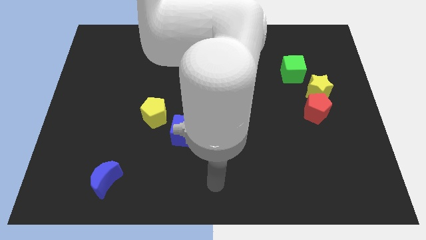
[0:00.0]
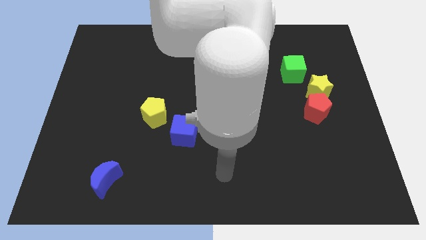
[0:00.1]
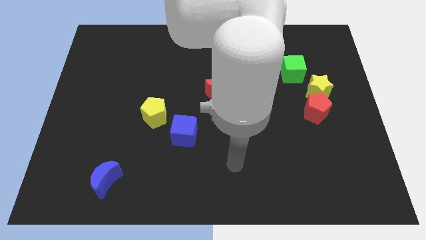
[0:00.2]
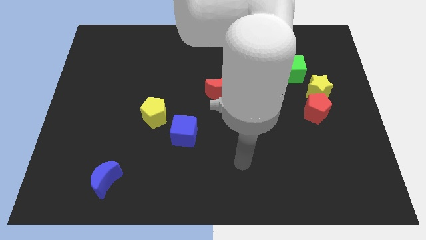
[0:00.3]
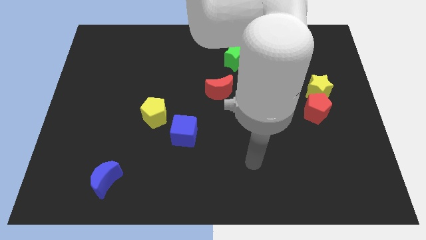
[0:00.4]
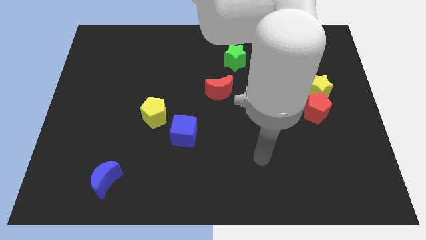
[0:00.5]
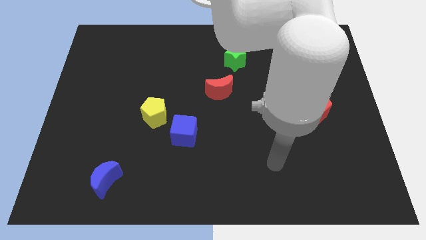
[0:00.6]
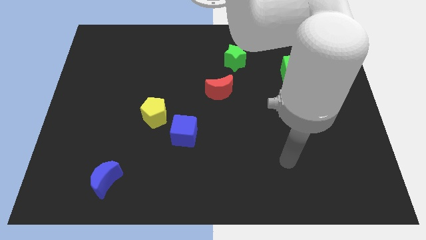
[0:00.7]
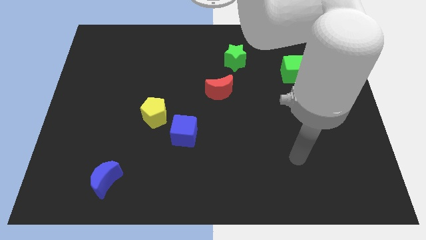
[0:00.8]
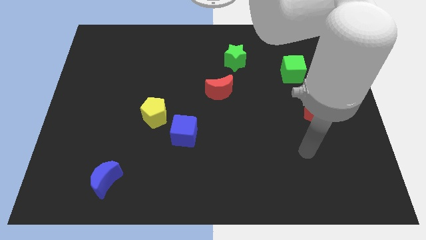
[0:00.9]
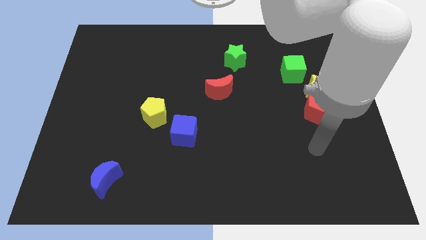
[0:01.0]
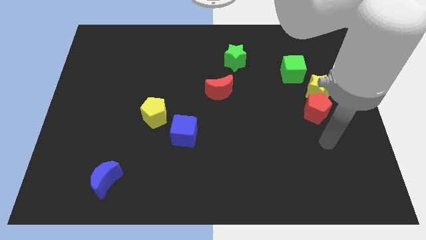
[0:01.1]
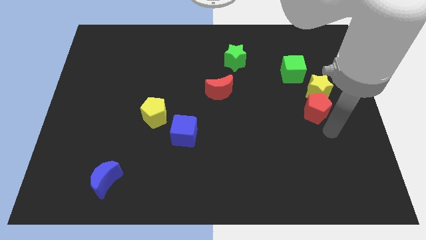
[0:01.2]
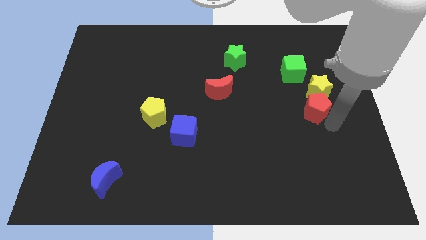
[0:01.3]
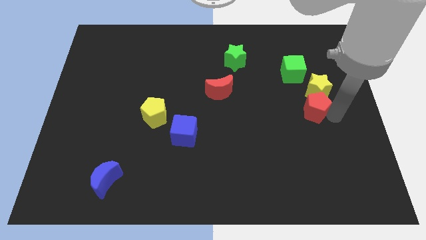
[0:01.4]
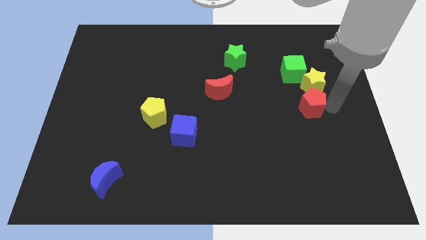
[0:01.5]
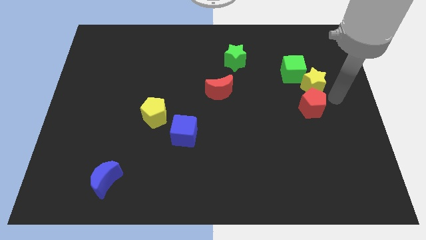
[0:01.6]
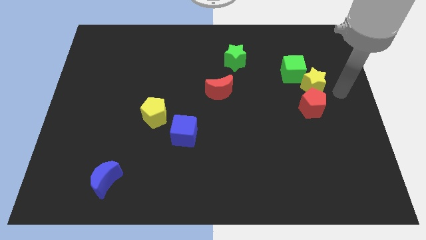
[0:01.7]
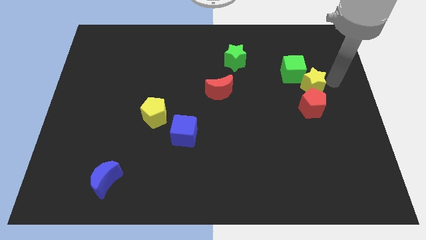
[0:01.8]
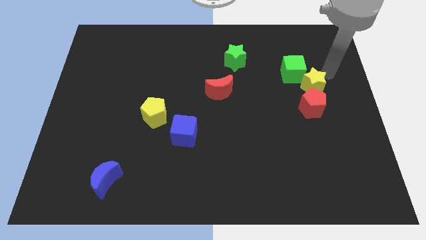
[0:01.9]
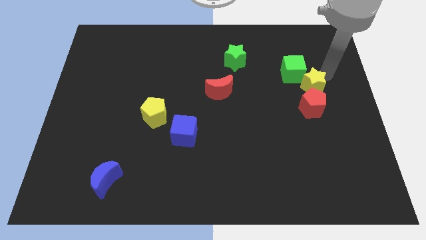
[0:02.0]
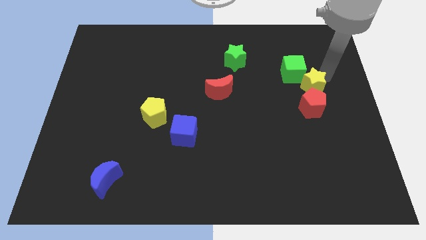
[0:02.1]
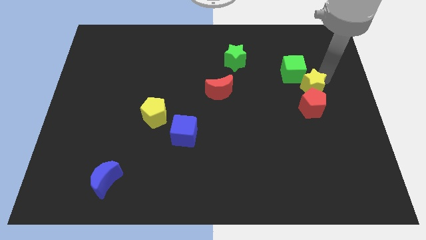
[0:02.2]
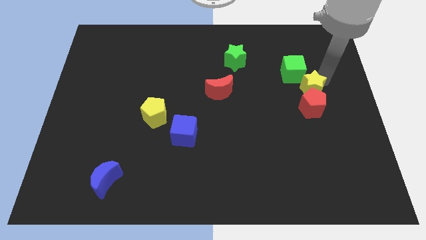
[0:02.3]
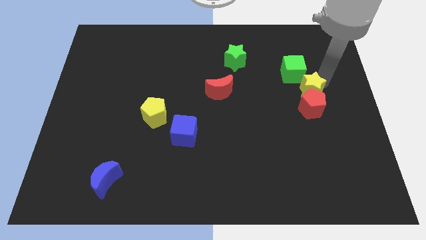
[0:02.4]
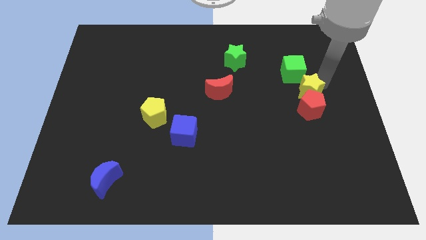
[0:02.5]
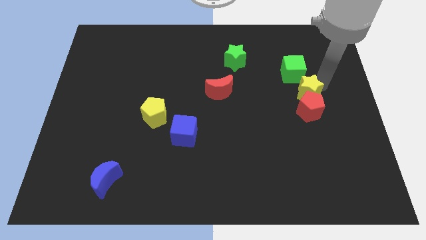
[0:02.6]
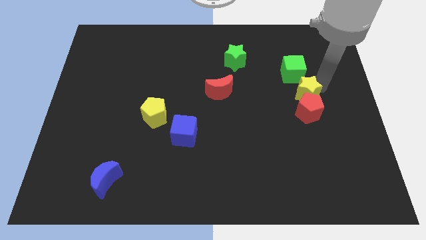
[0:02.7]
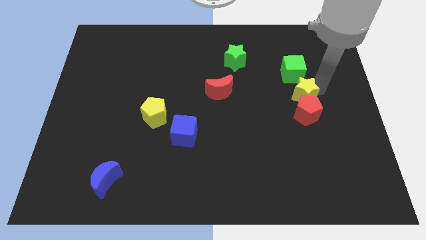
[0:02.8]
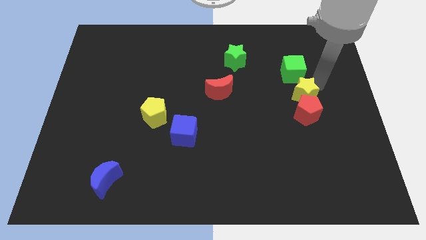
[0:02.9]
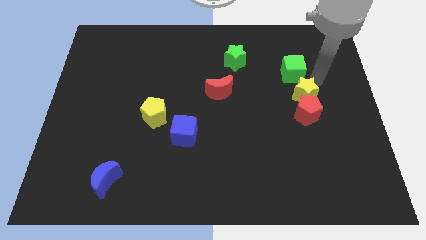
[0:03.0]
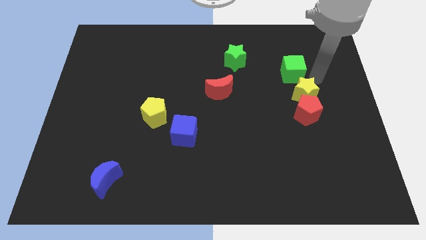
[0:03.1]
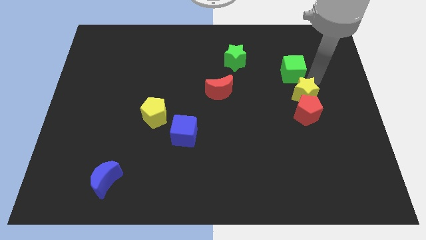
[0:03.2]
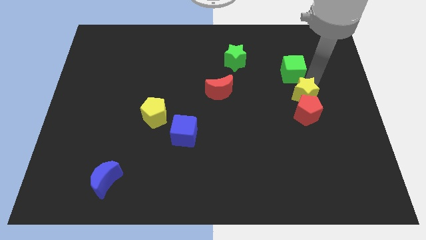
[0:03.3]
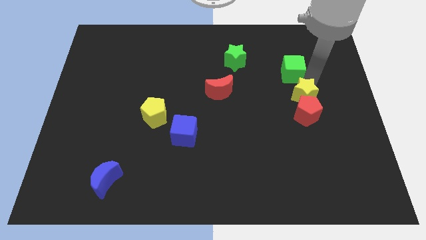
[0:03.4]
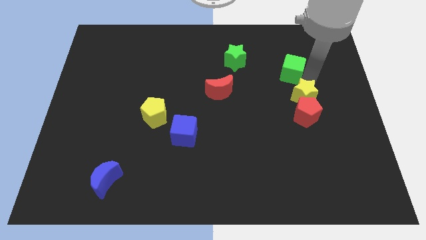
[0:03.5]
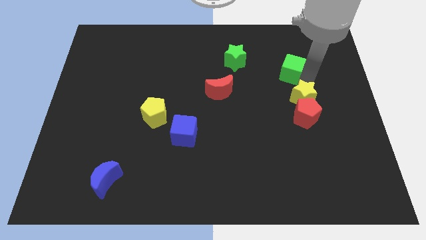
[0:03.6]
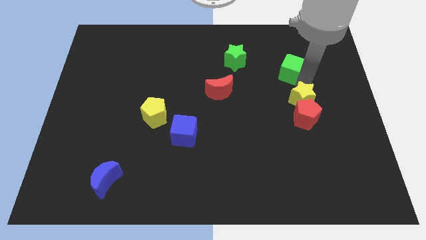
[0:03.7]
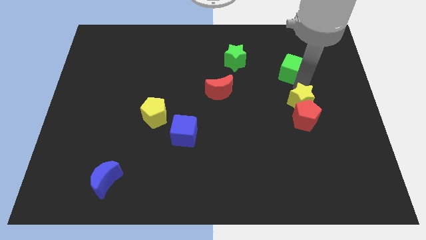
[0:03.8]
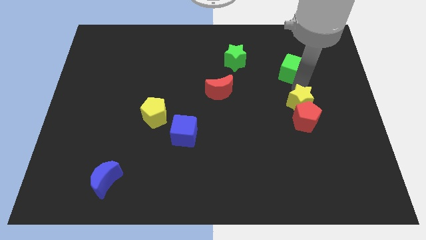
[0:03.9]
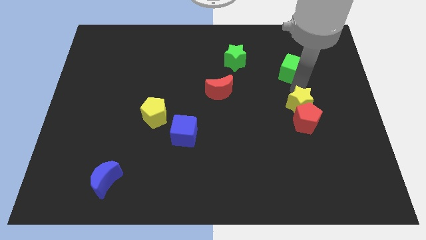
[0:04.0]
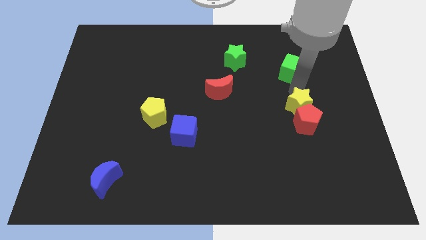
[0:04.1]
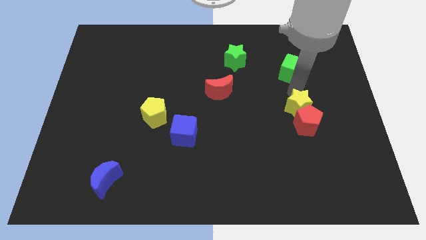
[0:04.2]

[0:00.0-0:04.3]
push the yellow star slightly down and then left

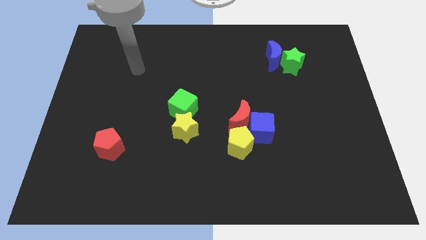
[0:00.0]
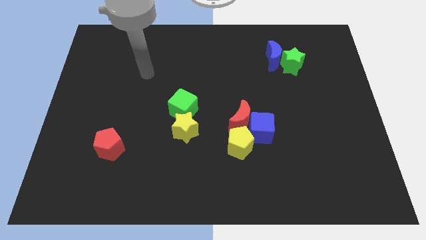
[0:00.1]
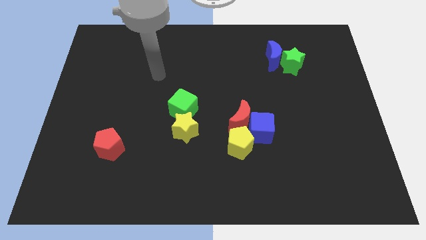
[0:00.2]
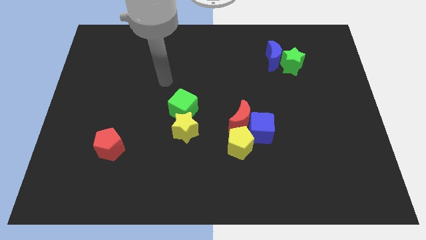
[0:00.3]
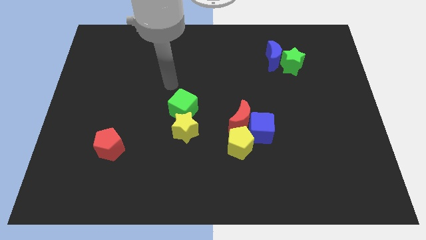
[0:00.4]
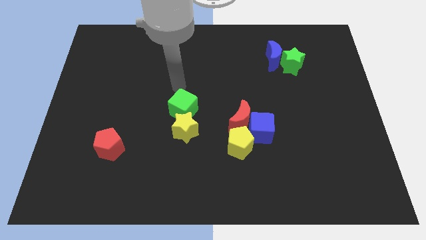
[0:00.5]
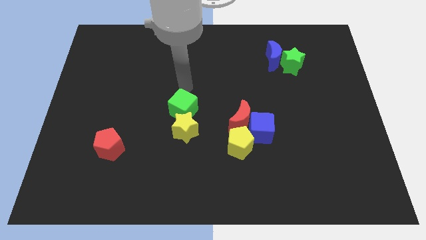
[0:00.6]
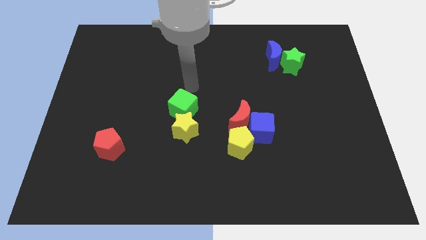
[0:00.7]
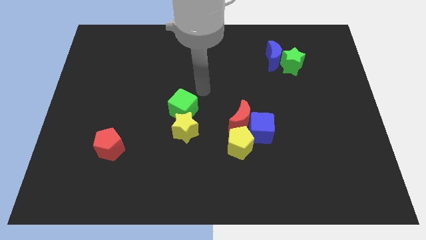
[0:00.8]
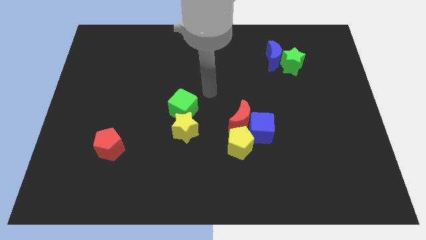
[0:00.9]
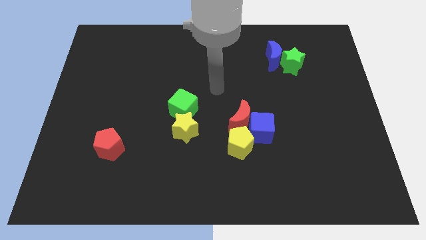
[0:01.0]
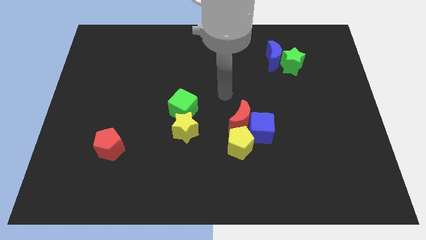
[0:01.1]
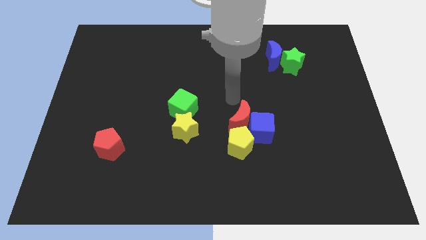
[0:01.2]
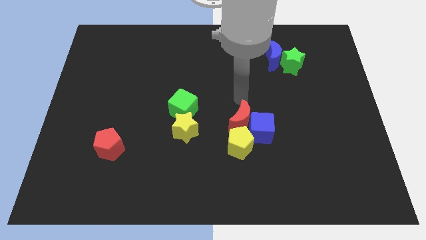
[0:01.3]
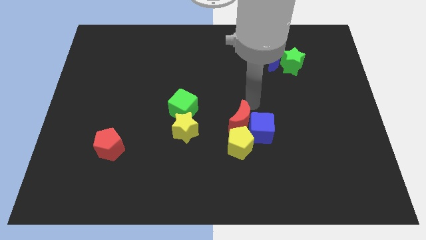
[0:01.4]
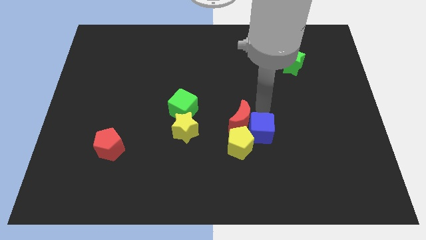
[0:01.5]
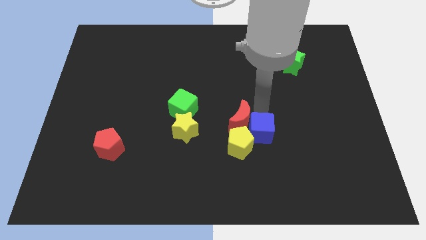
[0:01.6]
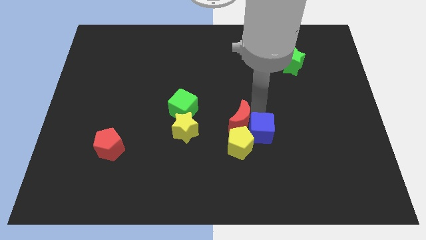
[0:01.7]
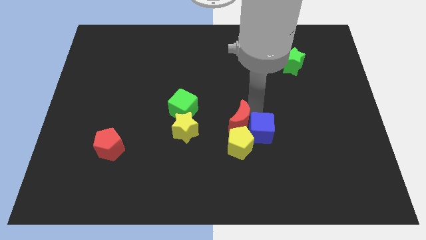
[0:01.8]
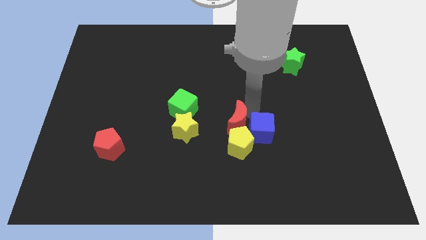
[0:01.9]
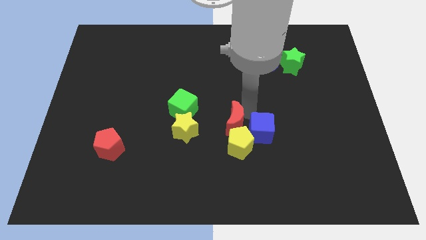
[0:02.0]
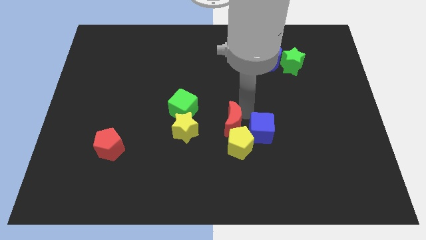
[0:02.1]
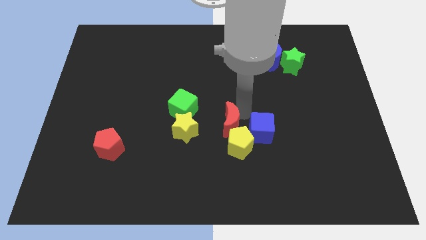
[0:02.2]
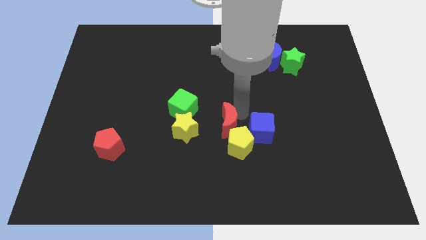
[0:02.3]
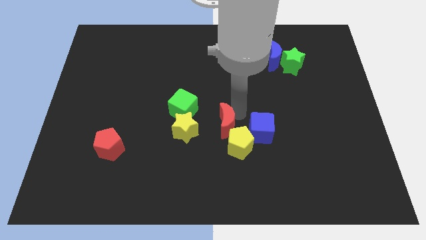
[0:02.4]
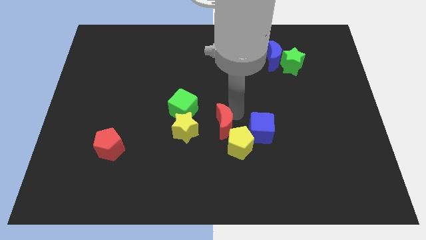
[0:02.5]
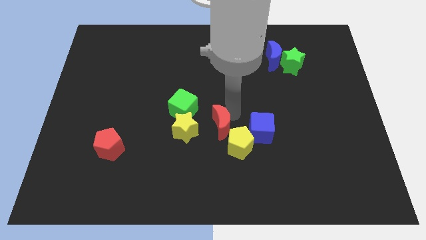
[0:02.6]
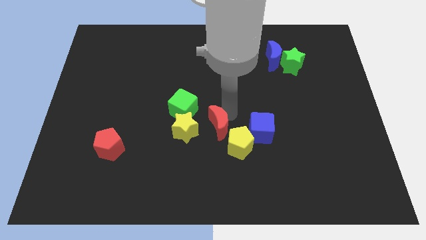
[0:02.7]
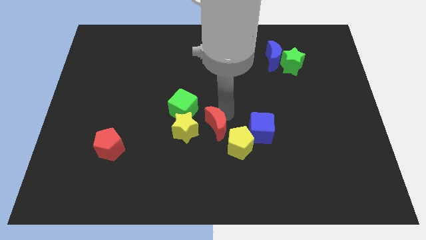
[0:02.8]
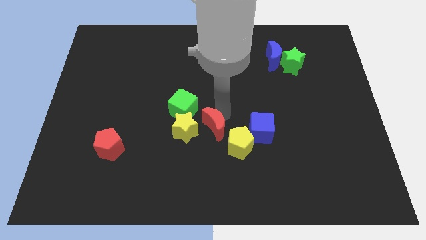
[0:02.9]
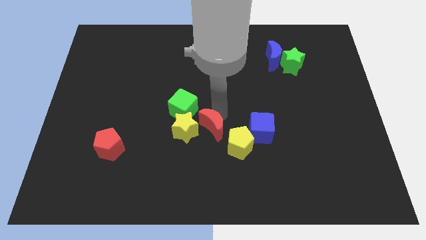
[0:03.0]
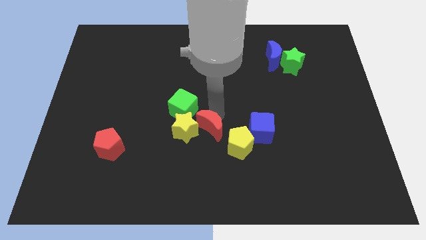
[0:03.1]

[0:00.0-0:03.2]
slide the red moon somewhat to the left

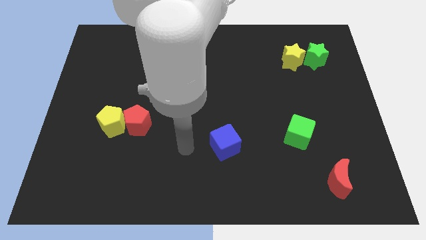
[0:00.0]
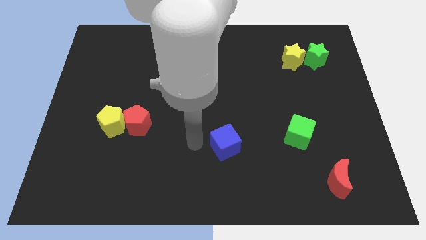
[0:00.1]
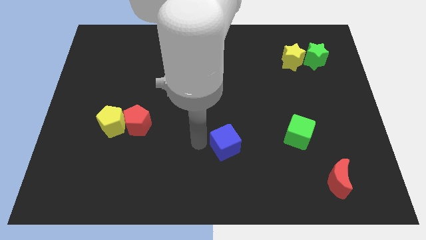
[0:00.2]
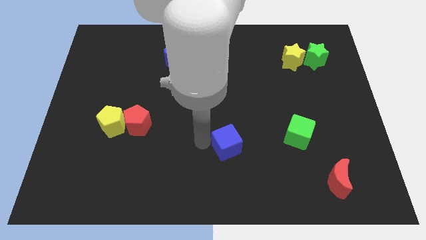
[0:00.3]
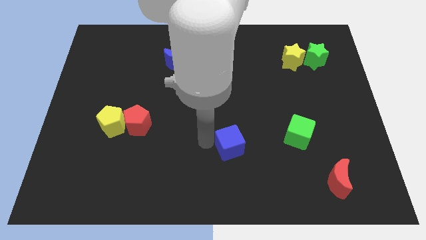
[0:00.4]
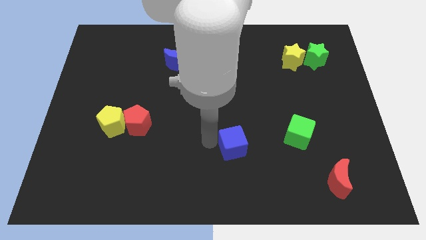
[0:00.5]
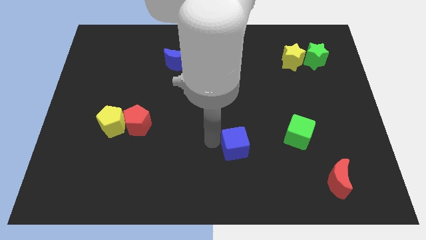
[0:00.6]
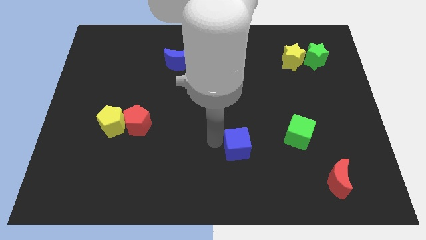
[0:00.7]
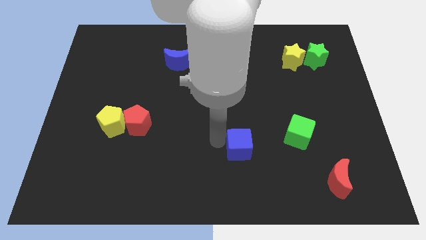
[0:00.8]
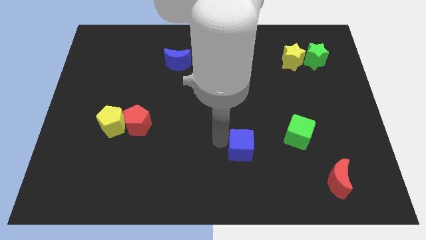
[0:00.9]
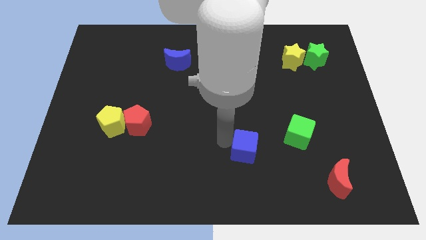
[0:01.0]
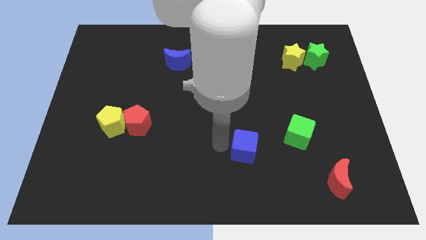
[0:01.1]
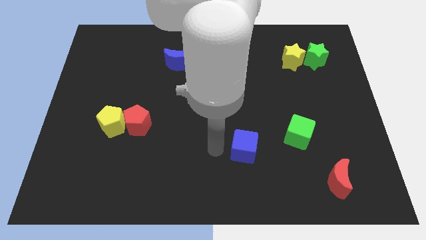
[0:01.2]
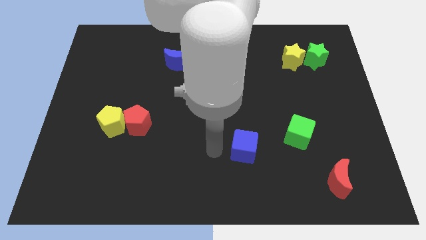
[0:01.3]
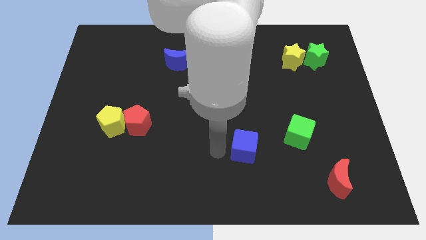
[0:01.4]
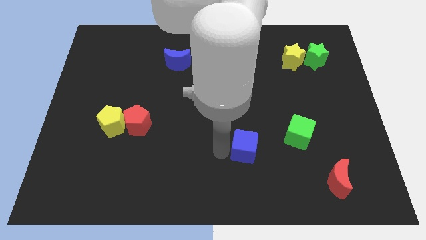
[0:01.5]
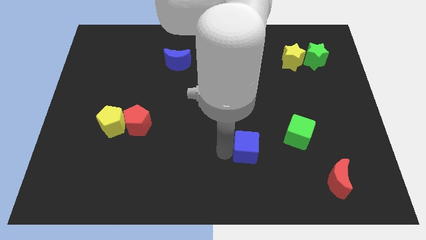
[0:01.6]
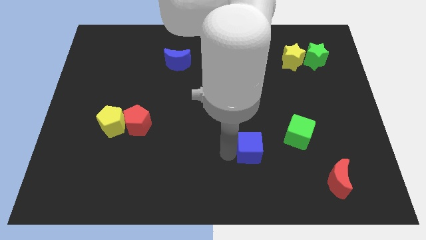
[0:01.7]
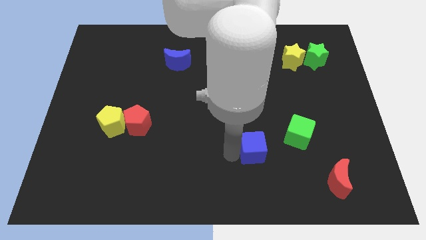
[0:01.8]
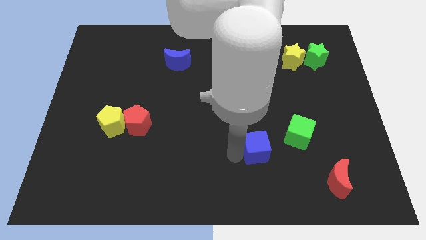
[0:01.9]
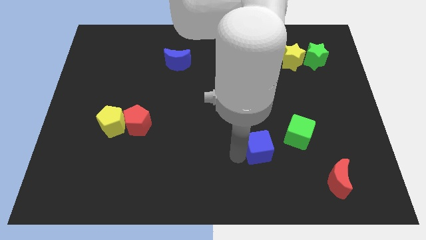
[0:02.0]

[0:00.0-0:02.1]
slide the blue cube a little bit to the right
